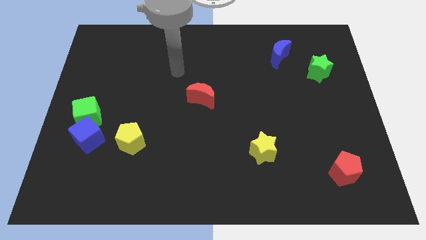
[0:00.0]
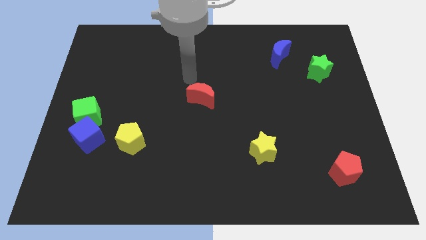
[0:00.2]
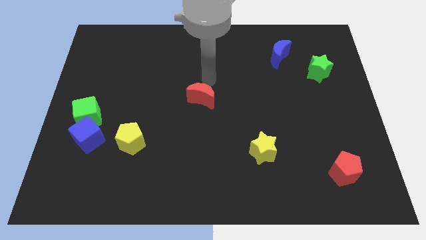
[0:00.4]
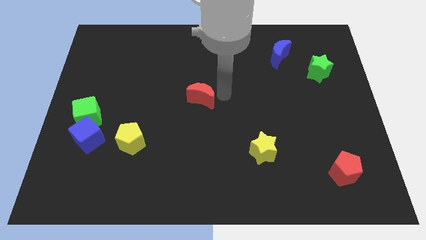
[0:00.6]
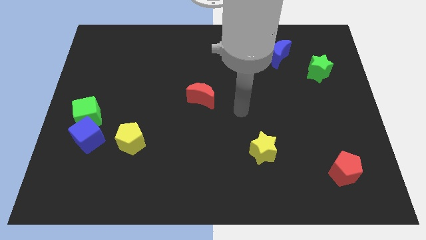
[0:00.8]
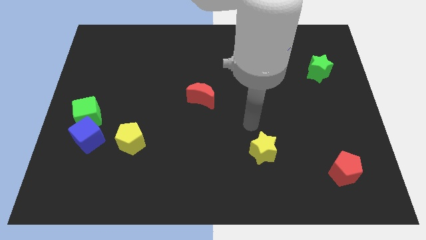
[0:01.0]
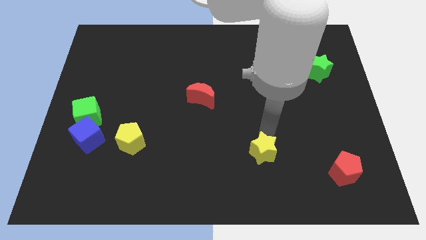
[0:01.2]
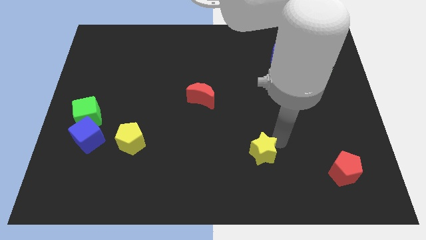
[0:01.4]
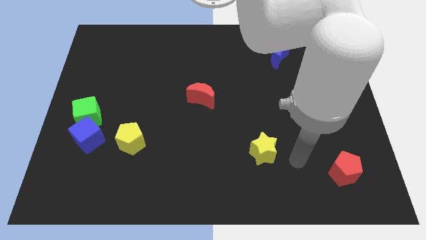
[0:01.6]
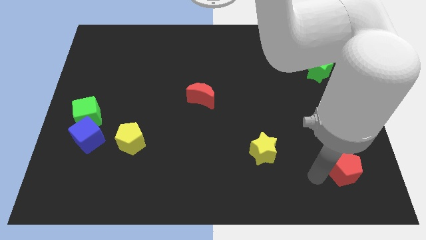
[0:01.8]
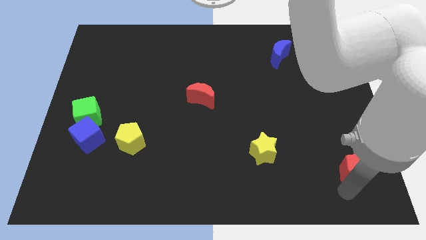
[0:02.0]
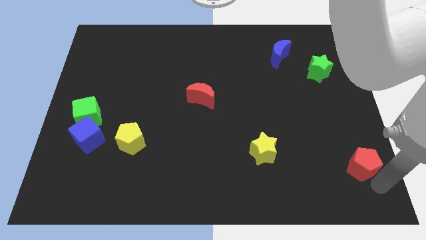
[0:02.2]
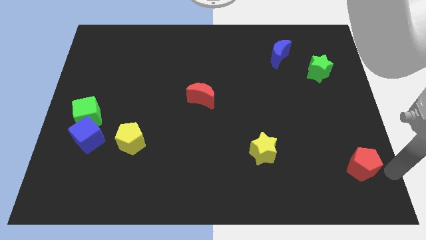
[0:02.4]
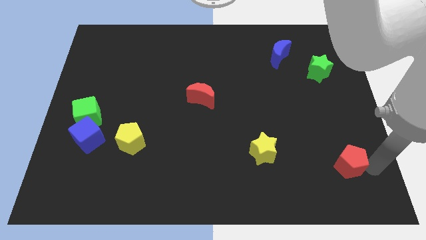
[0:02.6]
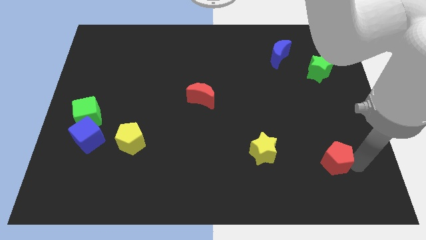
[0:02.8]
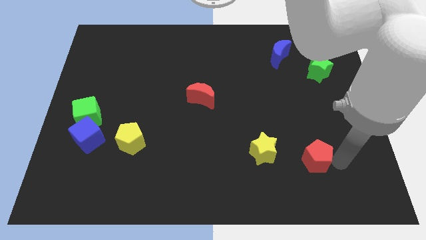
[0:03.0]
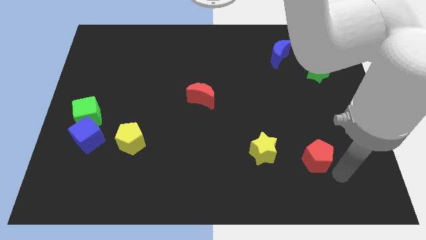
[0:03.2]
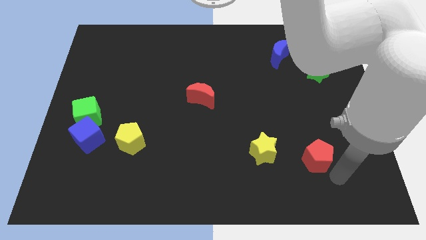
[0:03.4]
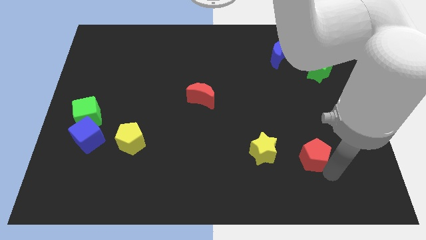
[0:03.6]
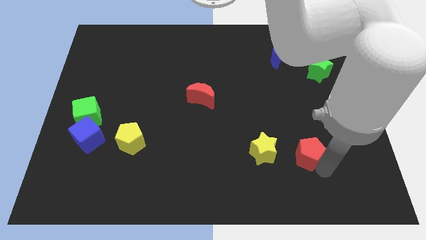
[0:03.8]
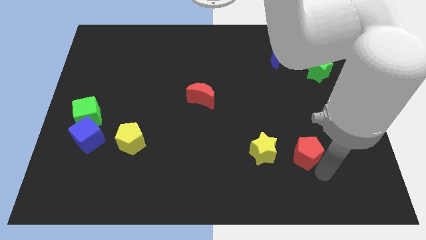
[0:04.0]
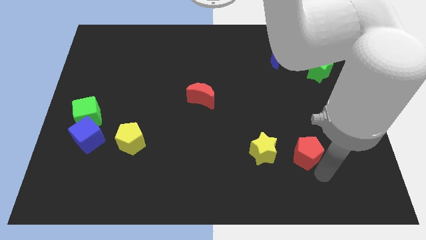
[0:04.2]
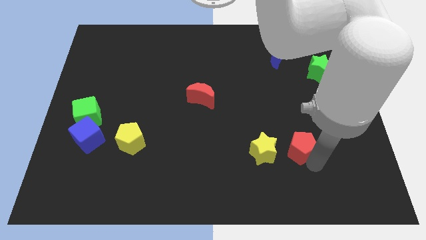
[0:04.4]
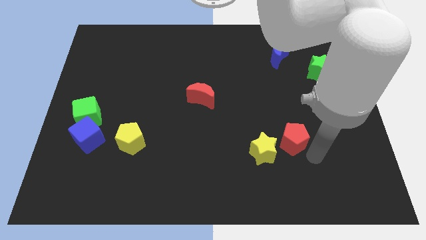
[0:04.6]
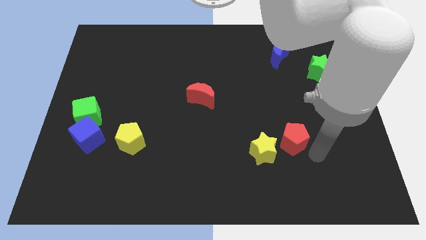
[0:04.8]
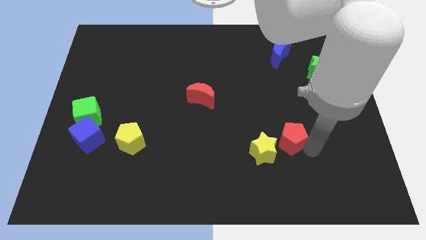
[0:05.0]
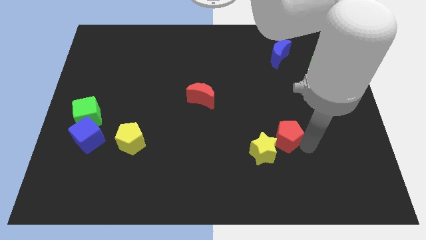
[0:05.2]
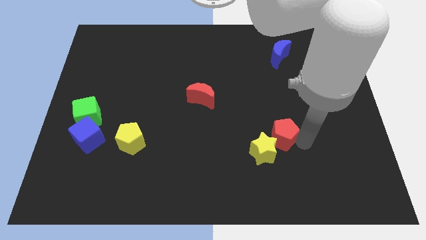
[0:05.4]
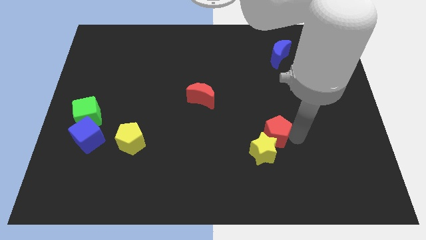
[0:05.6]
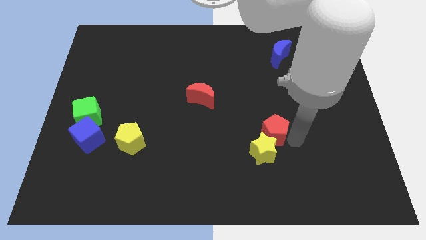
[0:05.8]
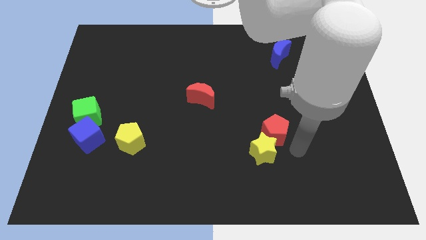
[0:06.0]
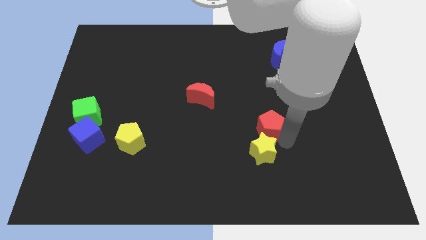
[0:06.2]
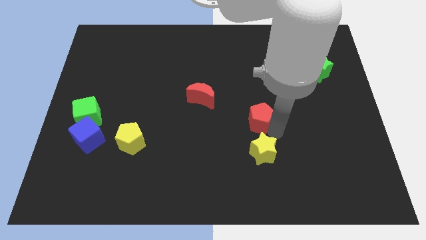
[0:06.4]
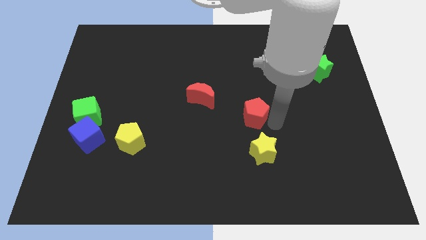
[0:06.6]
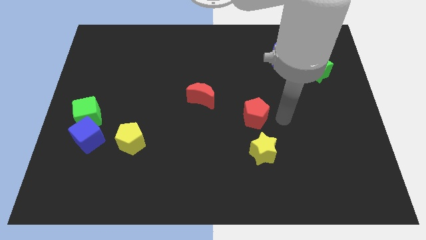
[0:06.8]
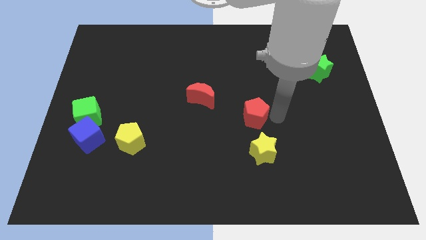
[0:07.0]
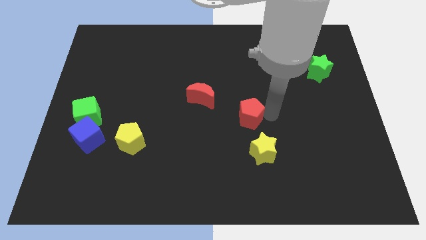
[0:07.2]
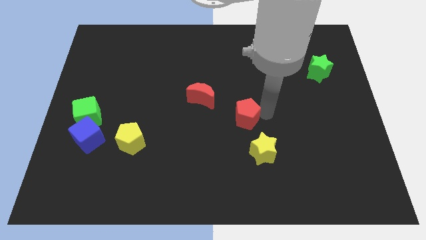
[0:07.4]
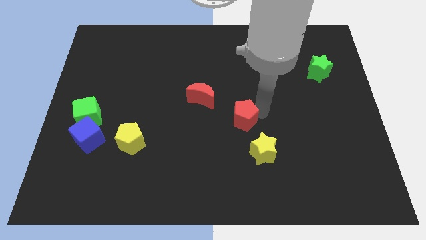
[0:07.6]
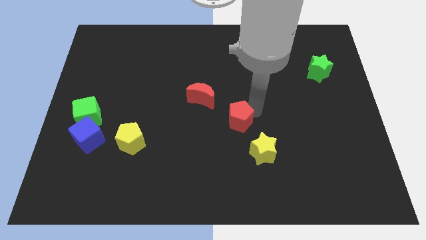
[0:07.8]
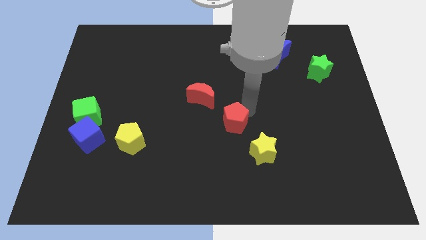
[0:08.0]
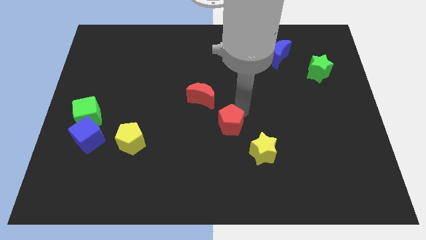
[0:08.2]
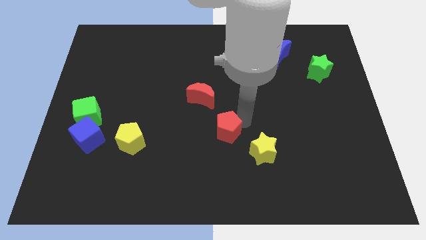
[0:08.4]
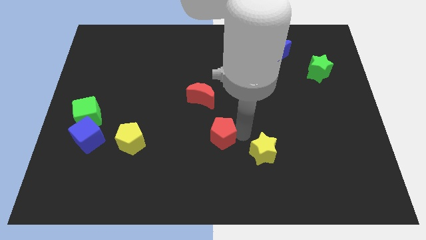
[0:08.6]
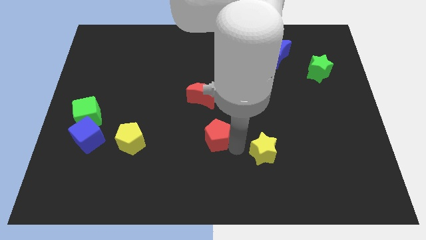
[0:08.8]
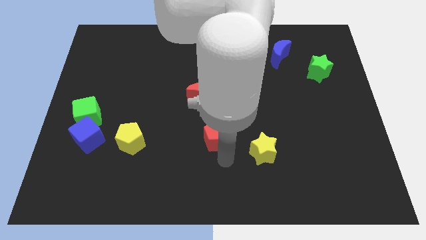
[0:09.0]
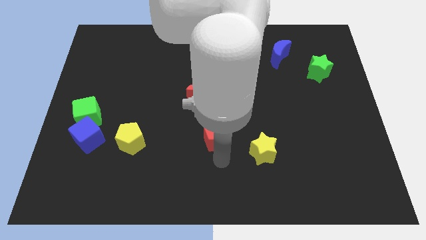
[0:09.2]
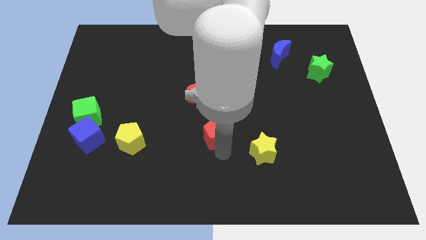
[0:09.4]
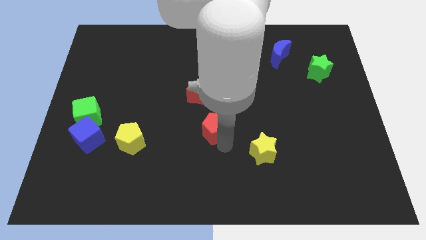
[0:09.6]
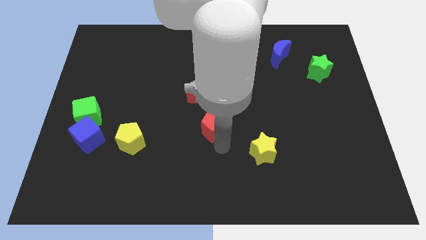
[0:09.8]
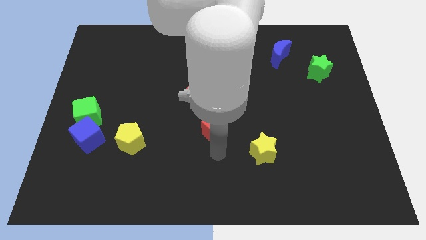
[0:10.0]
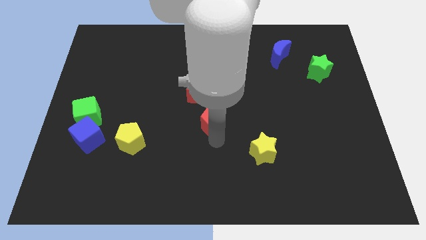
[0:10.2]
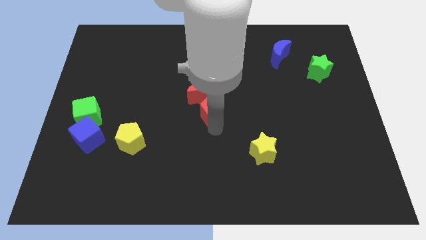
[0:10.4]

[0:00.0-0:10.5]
put the red pentagon towards the red moon

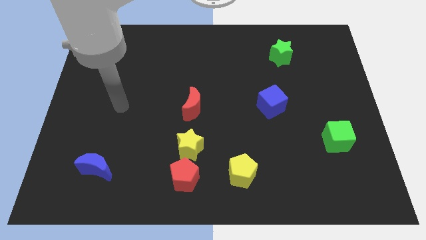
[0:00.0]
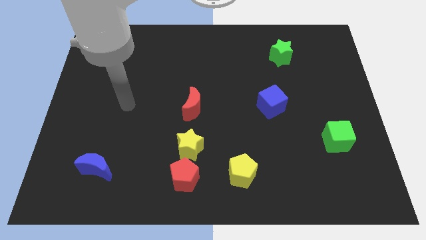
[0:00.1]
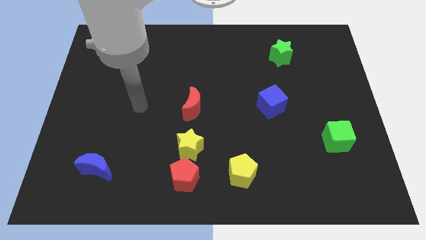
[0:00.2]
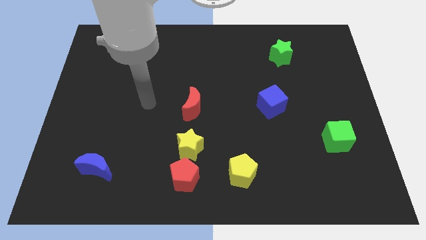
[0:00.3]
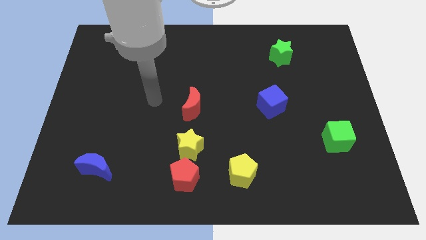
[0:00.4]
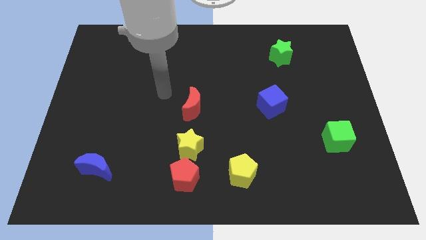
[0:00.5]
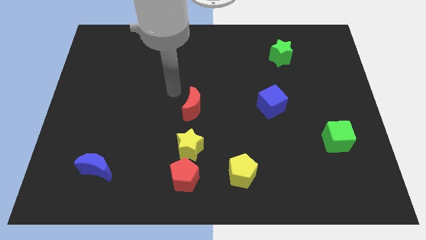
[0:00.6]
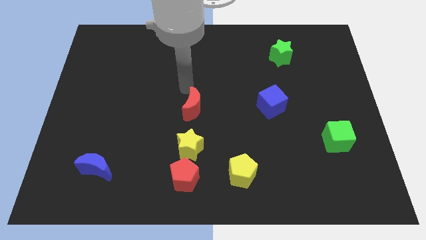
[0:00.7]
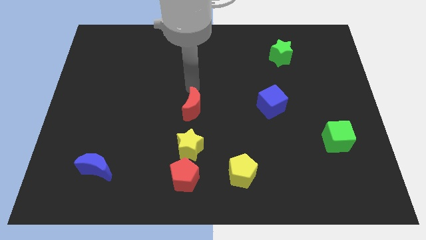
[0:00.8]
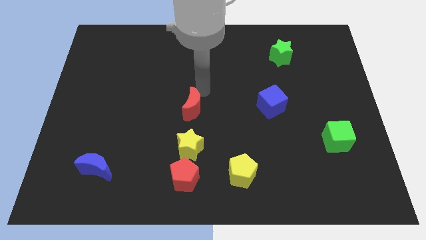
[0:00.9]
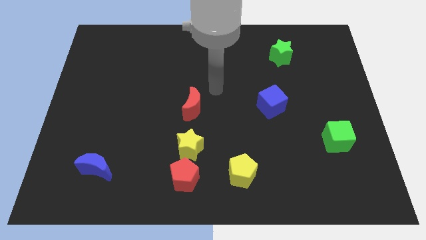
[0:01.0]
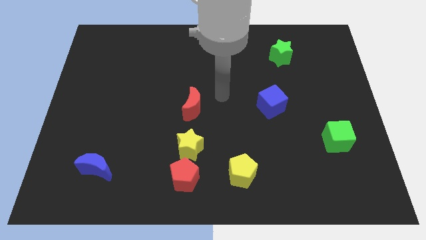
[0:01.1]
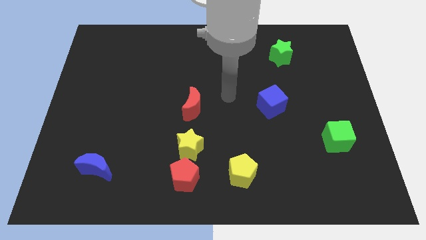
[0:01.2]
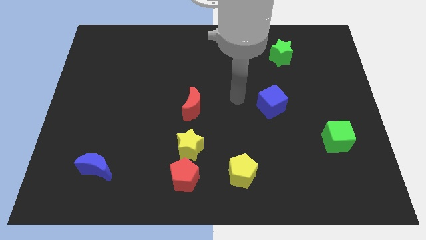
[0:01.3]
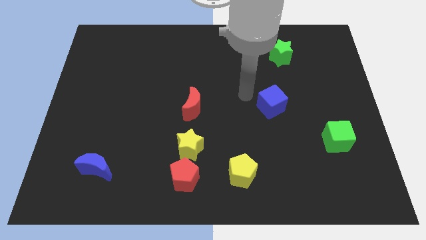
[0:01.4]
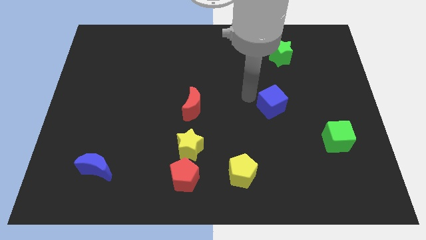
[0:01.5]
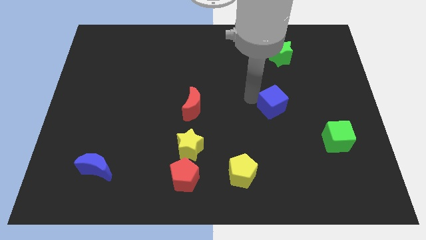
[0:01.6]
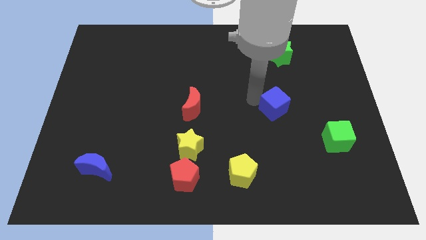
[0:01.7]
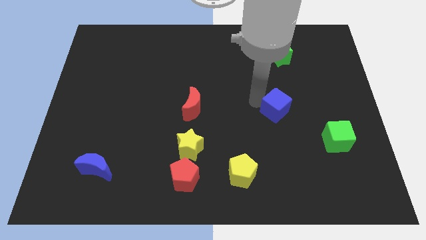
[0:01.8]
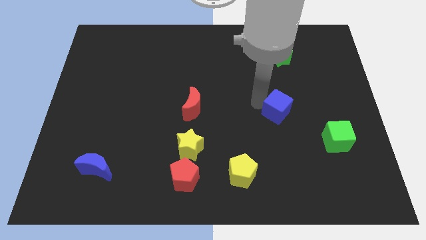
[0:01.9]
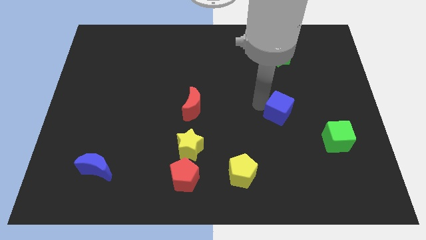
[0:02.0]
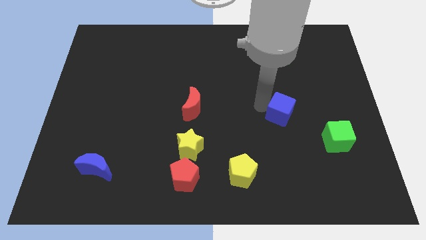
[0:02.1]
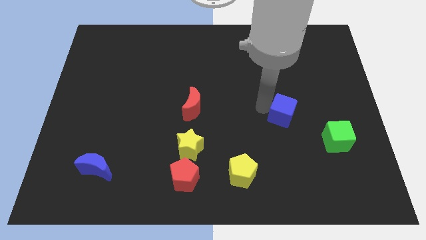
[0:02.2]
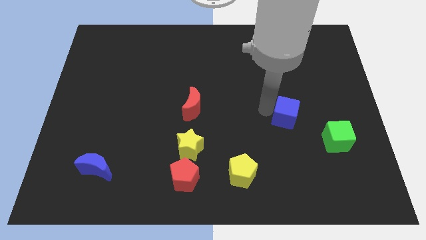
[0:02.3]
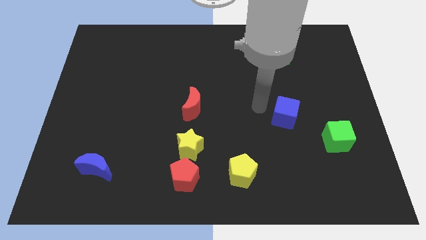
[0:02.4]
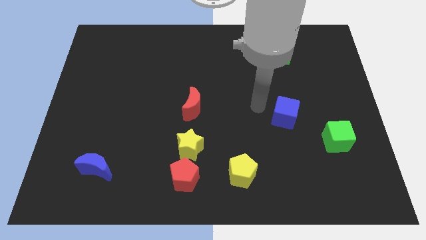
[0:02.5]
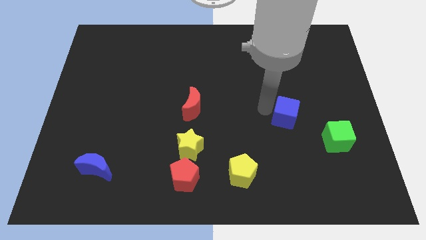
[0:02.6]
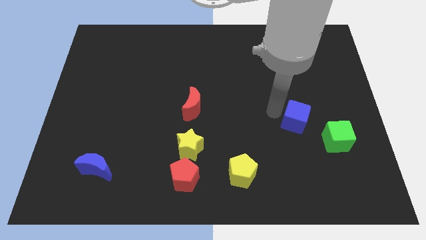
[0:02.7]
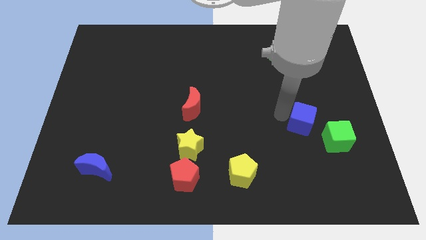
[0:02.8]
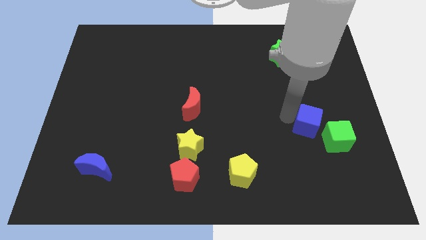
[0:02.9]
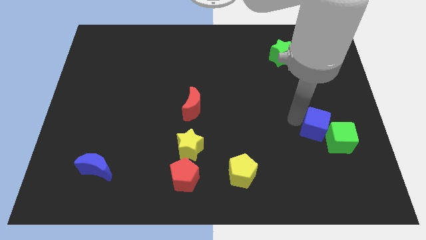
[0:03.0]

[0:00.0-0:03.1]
move the blue cube close to the green cube
